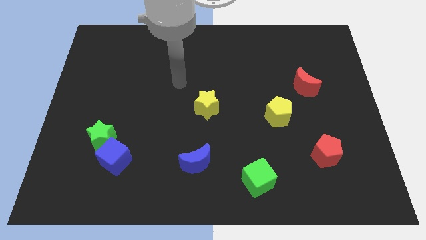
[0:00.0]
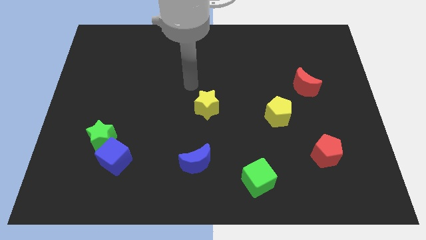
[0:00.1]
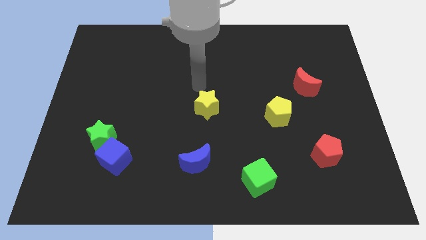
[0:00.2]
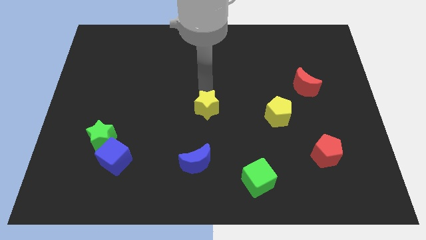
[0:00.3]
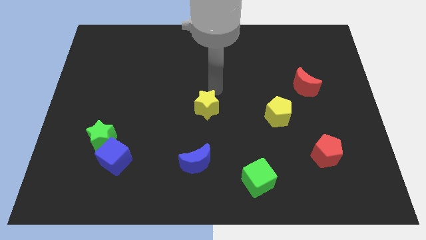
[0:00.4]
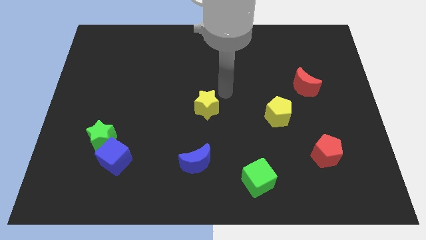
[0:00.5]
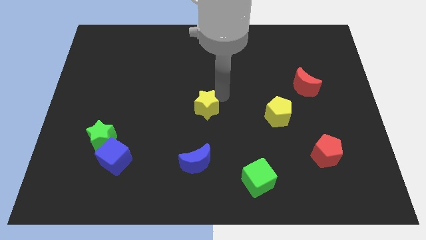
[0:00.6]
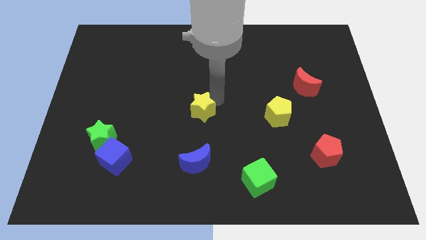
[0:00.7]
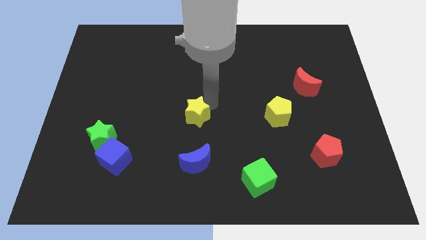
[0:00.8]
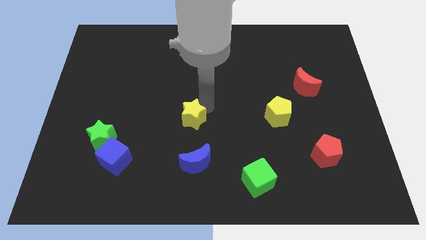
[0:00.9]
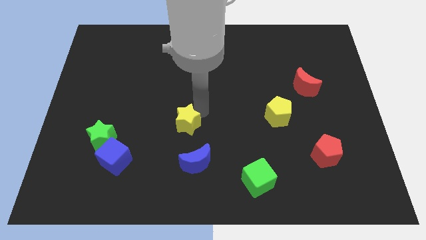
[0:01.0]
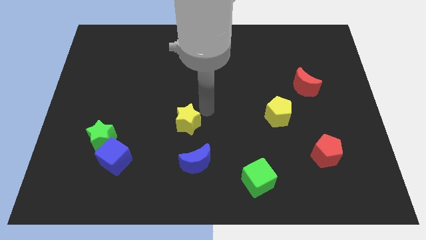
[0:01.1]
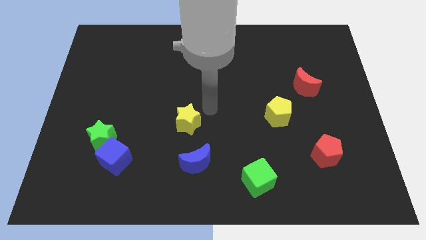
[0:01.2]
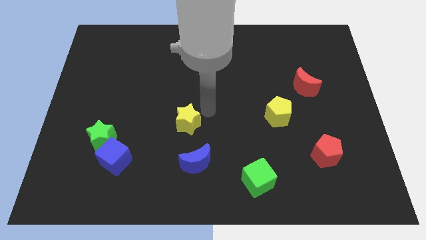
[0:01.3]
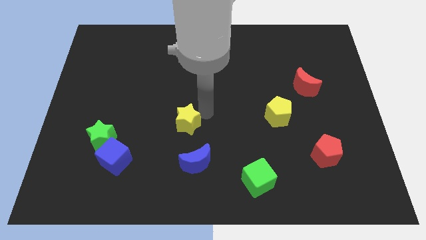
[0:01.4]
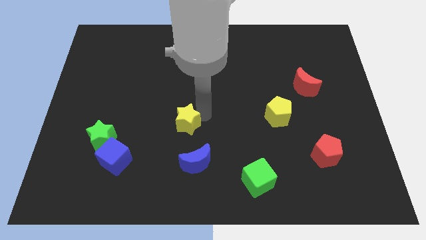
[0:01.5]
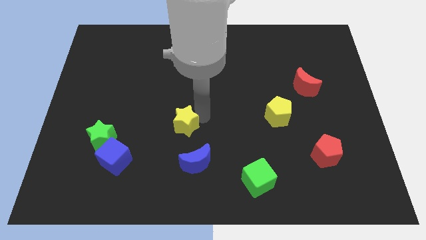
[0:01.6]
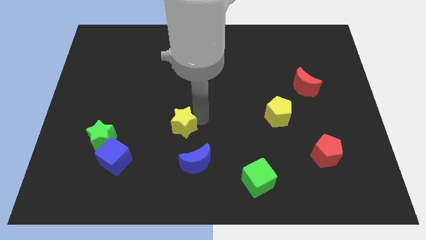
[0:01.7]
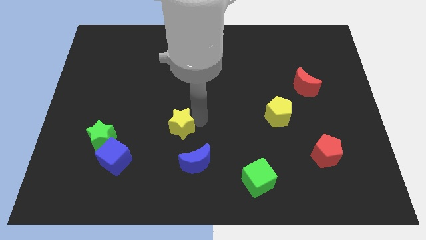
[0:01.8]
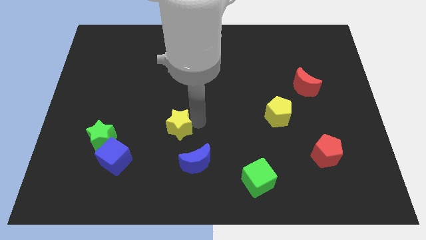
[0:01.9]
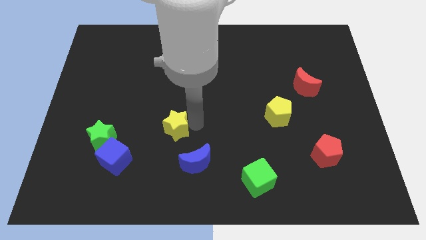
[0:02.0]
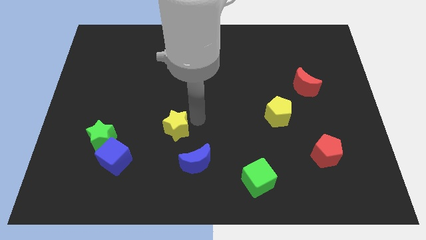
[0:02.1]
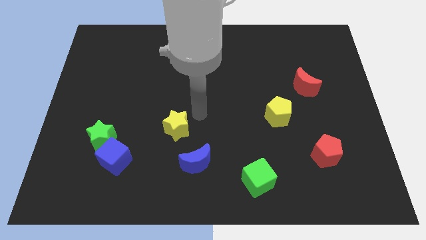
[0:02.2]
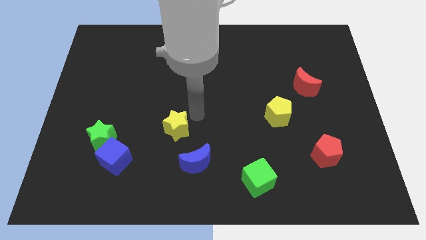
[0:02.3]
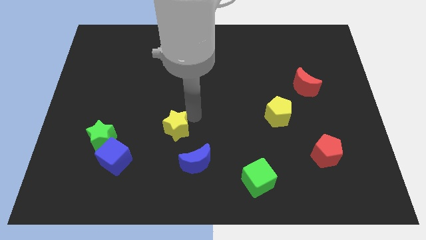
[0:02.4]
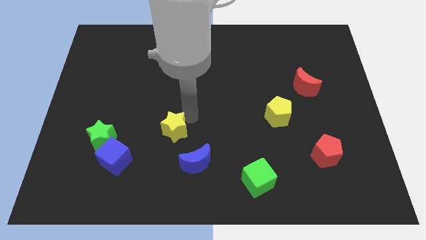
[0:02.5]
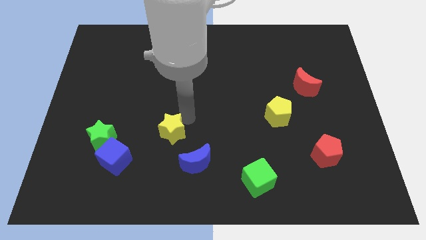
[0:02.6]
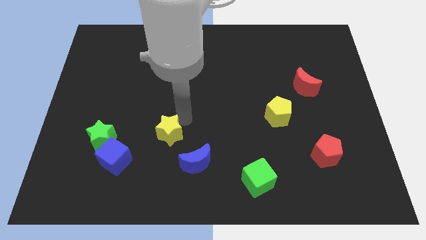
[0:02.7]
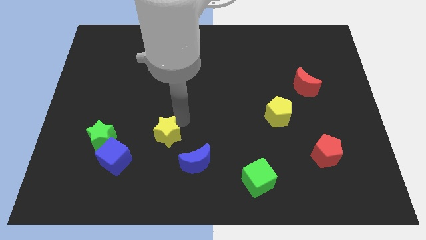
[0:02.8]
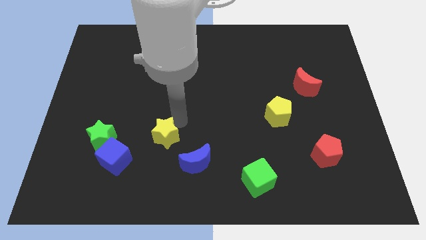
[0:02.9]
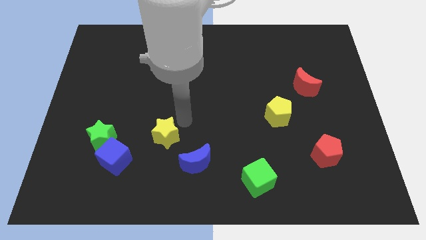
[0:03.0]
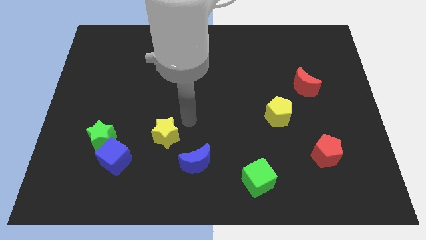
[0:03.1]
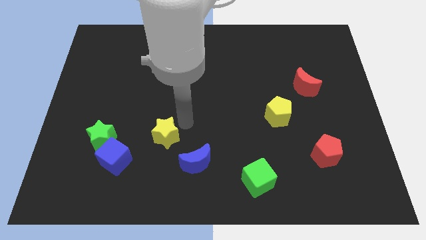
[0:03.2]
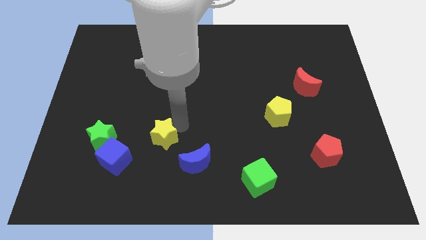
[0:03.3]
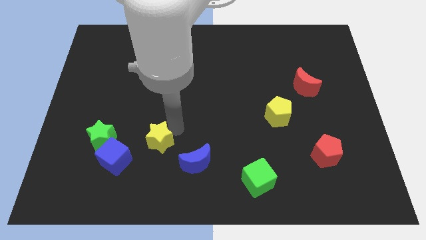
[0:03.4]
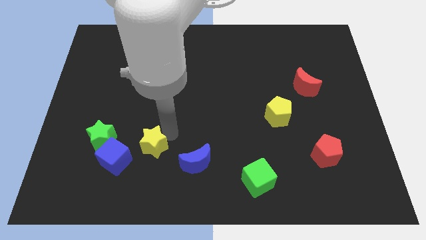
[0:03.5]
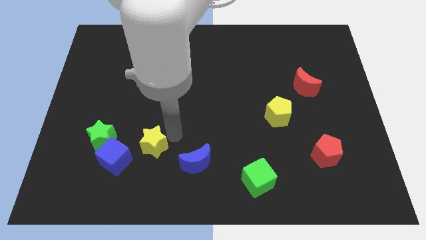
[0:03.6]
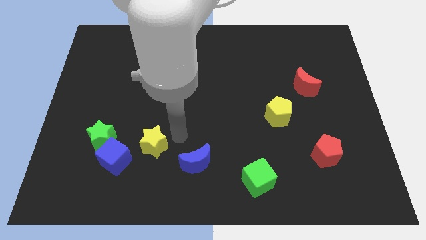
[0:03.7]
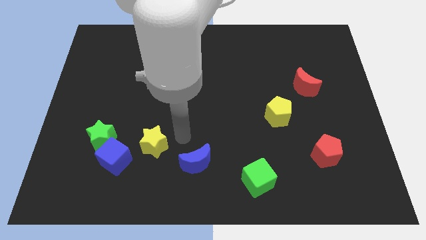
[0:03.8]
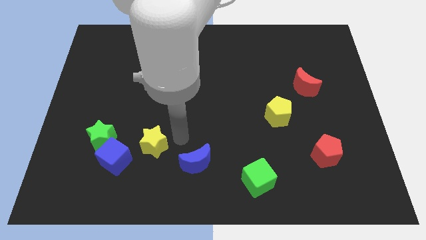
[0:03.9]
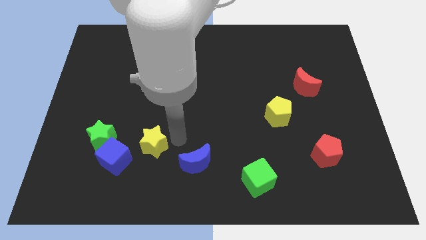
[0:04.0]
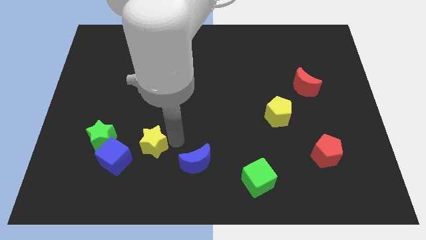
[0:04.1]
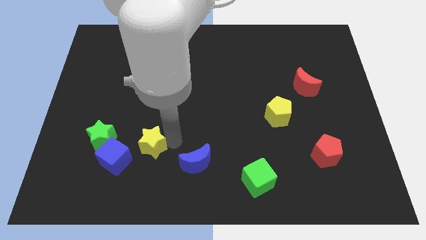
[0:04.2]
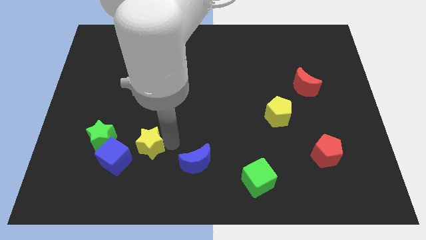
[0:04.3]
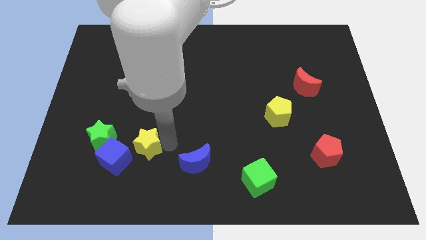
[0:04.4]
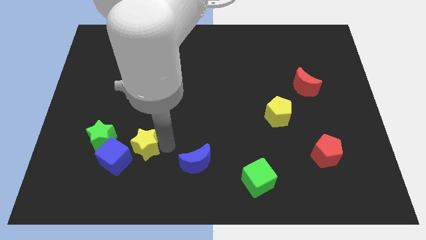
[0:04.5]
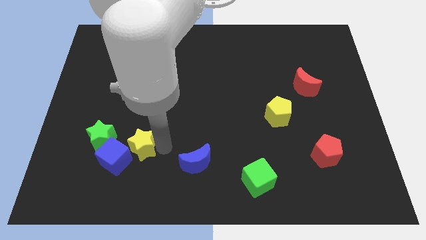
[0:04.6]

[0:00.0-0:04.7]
push the yellow star towards the blue cube

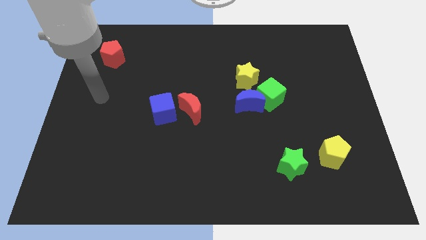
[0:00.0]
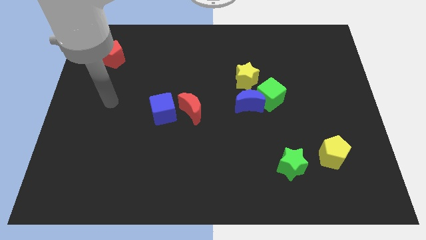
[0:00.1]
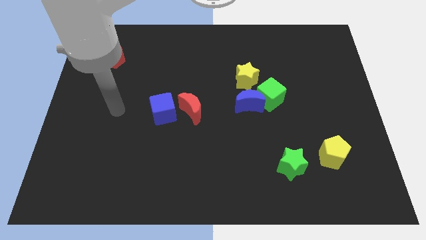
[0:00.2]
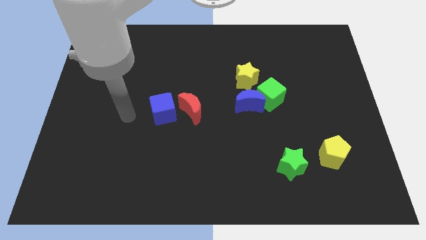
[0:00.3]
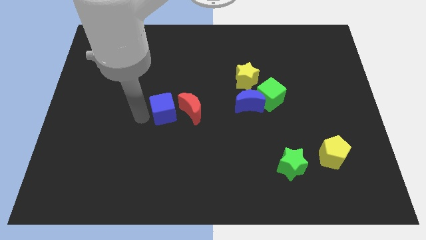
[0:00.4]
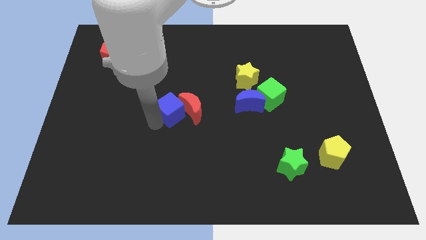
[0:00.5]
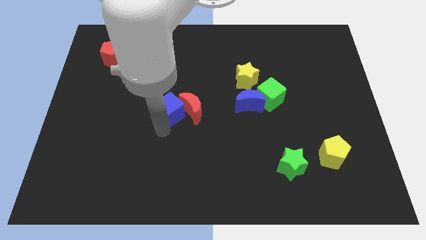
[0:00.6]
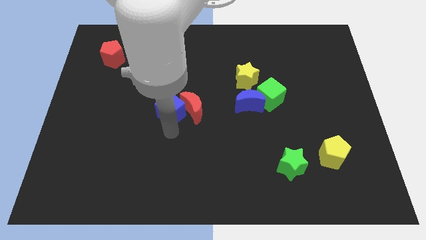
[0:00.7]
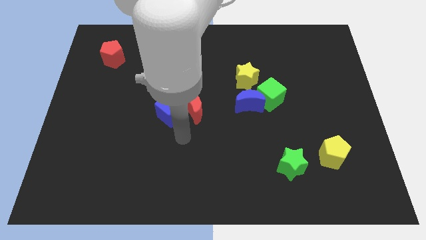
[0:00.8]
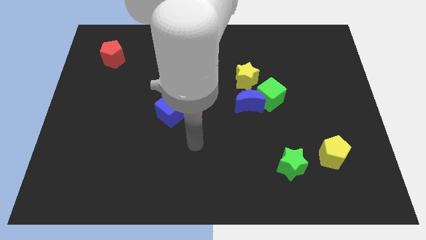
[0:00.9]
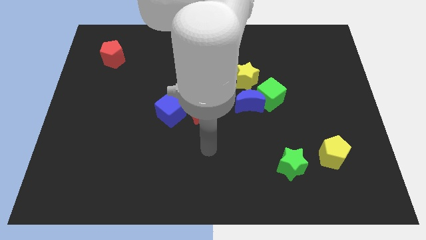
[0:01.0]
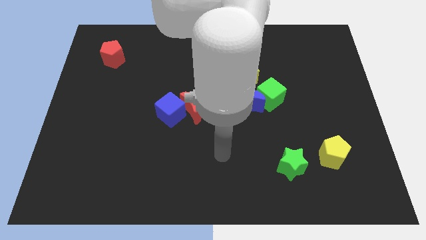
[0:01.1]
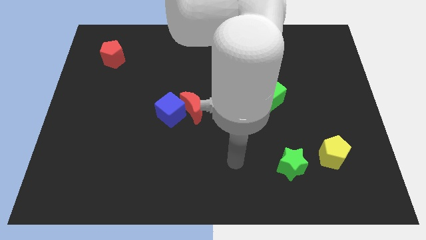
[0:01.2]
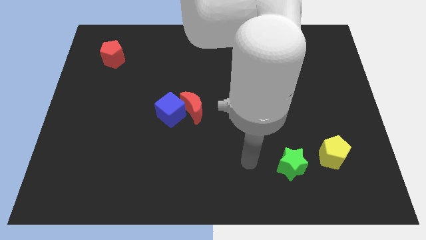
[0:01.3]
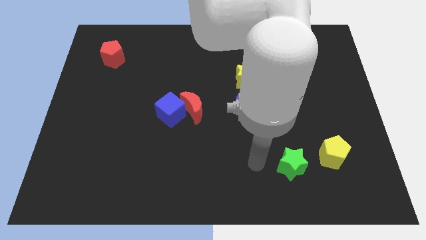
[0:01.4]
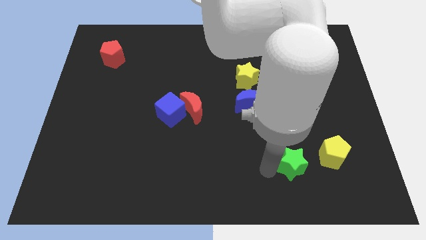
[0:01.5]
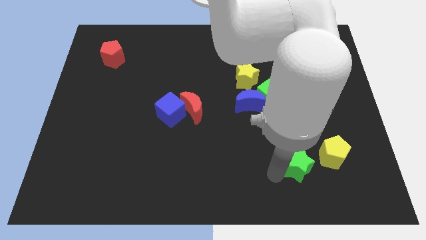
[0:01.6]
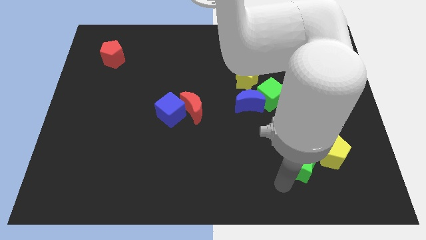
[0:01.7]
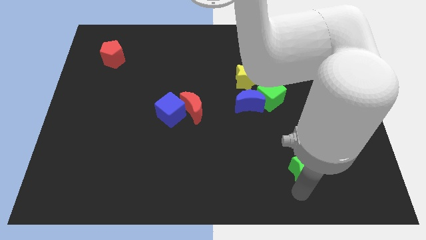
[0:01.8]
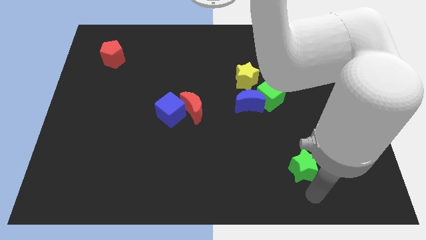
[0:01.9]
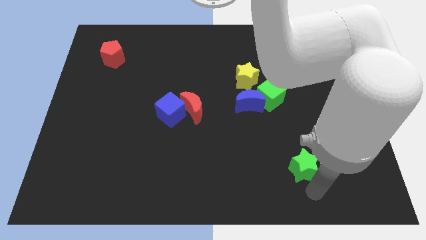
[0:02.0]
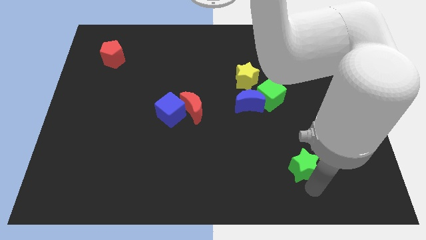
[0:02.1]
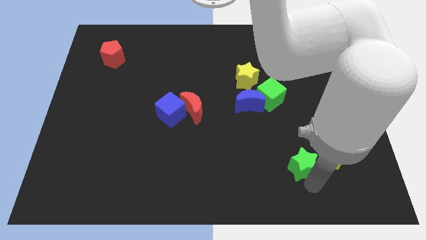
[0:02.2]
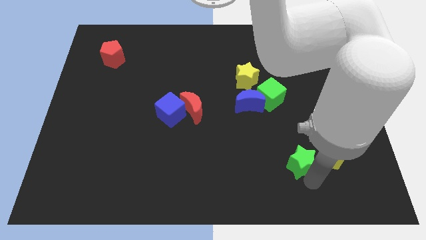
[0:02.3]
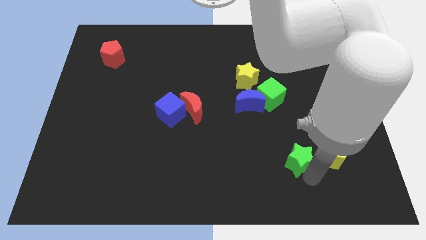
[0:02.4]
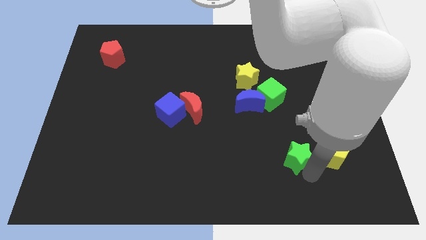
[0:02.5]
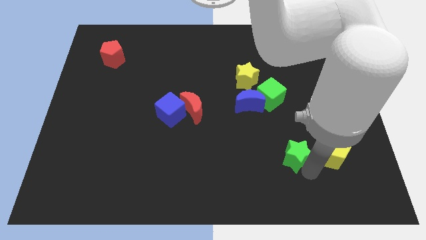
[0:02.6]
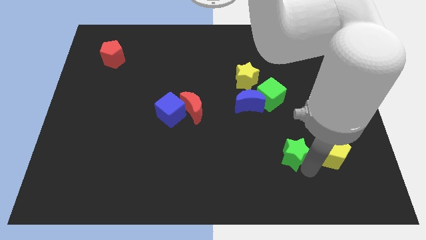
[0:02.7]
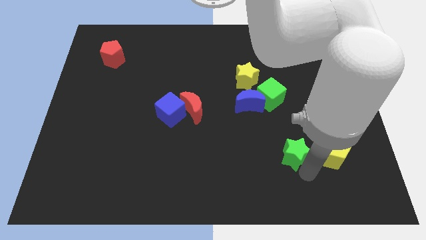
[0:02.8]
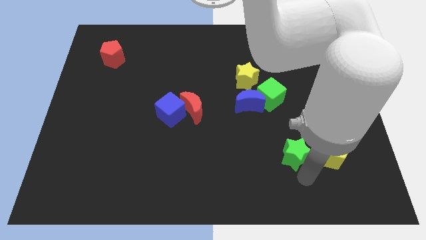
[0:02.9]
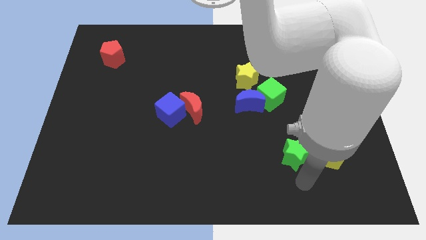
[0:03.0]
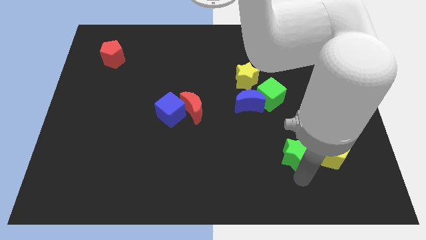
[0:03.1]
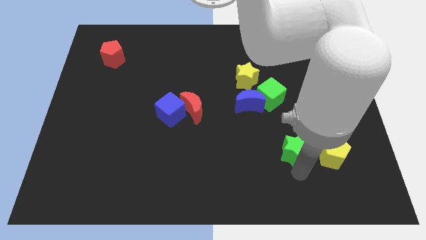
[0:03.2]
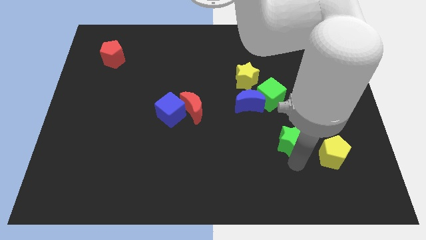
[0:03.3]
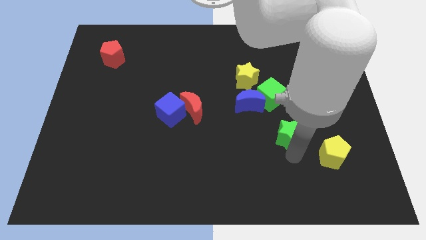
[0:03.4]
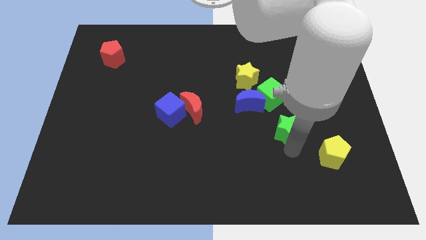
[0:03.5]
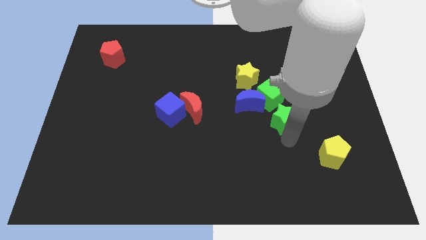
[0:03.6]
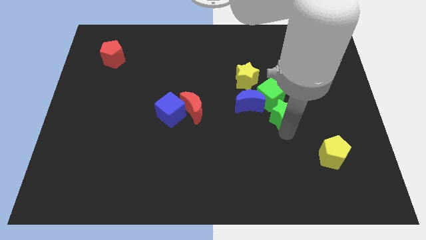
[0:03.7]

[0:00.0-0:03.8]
slide the green star to the green cube
